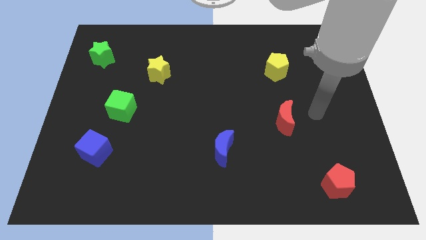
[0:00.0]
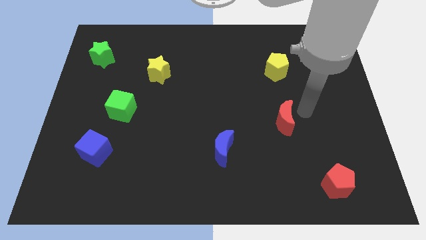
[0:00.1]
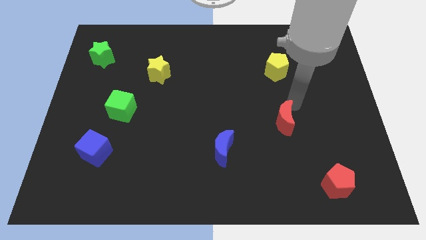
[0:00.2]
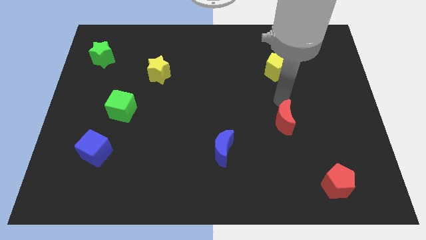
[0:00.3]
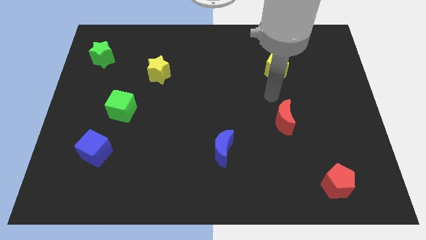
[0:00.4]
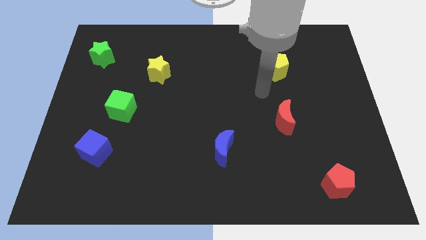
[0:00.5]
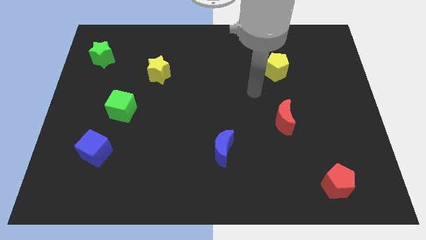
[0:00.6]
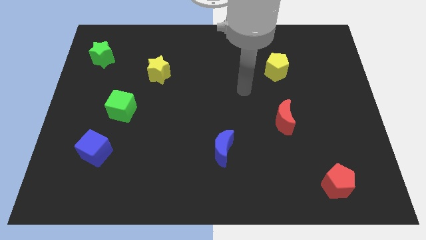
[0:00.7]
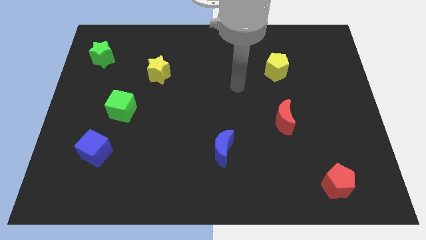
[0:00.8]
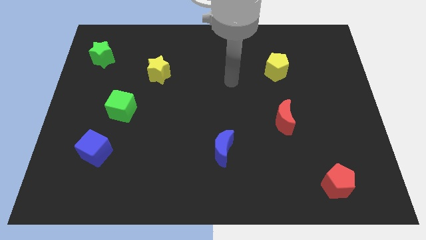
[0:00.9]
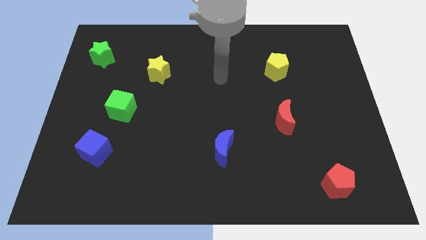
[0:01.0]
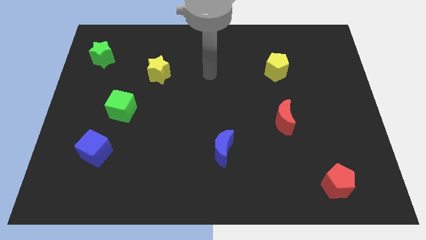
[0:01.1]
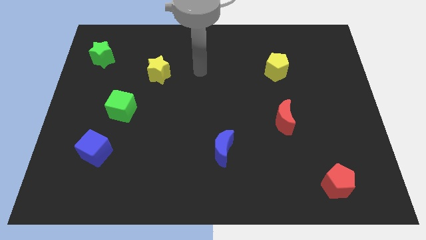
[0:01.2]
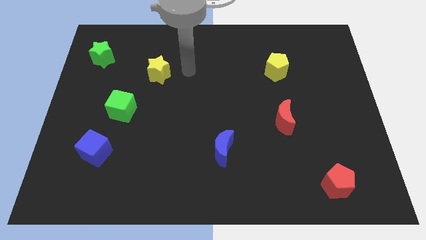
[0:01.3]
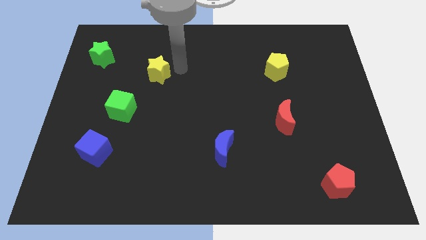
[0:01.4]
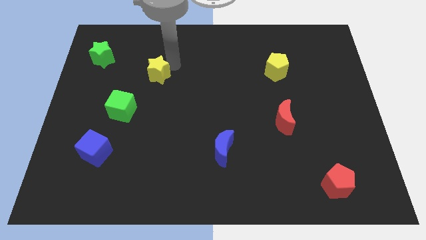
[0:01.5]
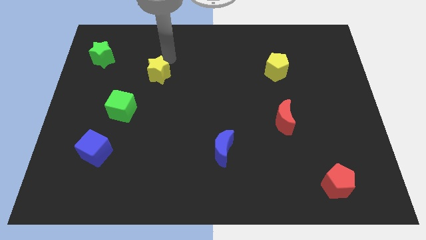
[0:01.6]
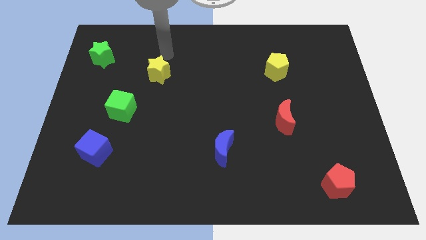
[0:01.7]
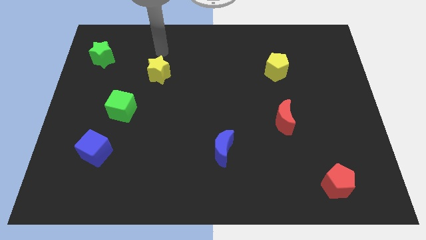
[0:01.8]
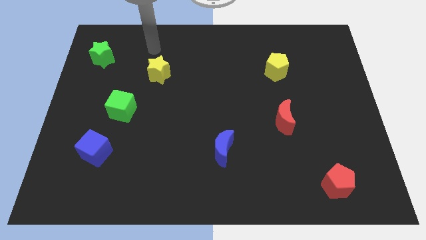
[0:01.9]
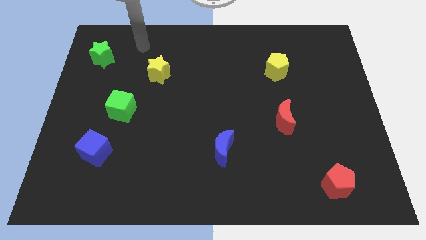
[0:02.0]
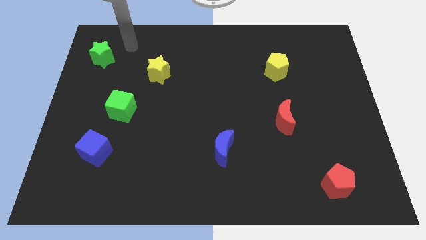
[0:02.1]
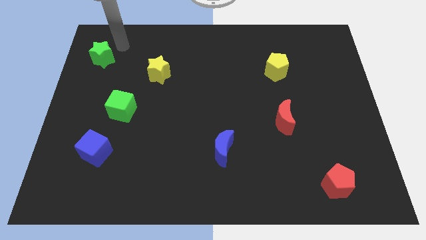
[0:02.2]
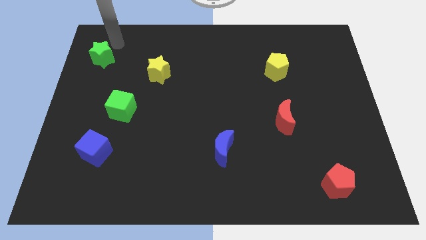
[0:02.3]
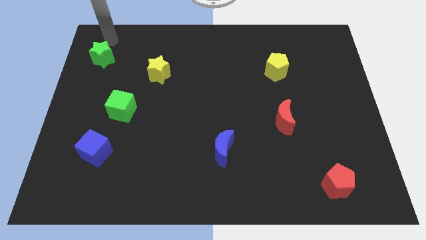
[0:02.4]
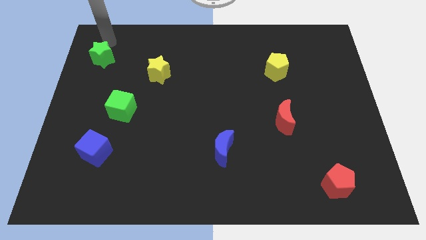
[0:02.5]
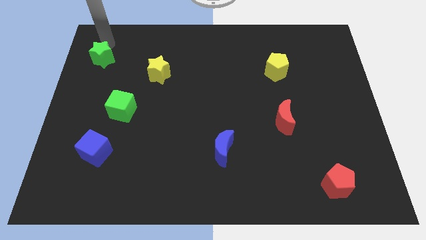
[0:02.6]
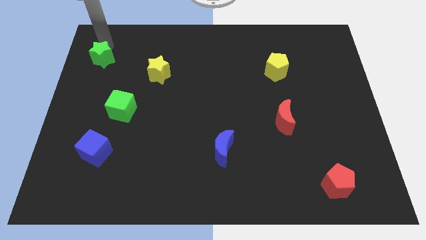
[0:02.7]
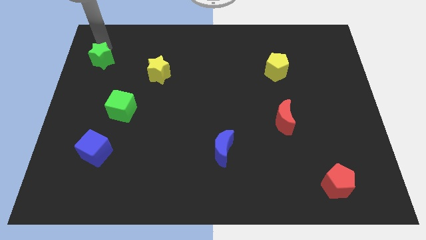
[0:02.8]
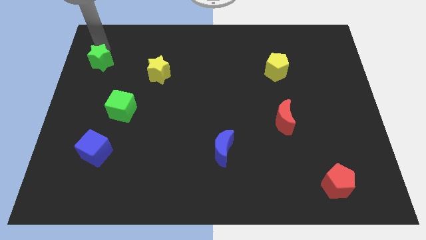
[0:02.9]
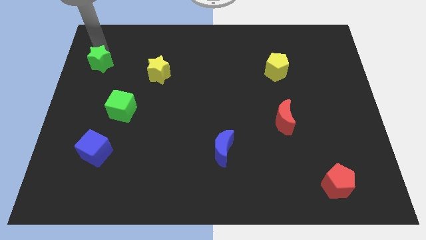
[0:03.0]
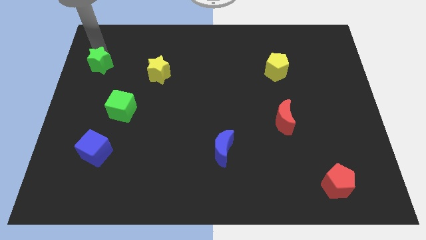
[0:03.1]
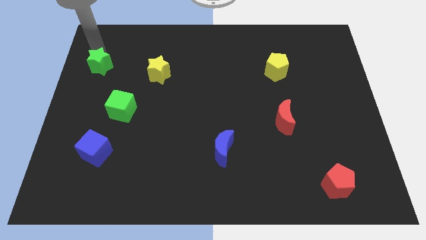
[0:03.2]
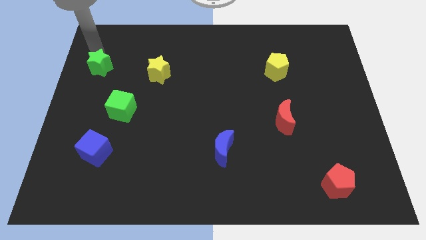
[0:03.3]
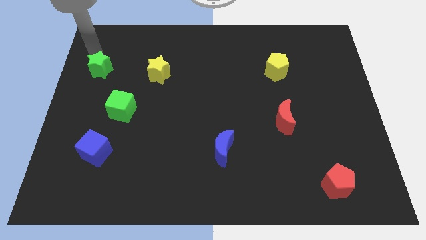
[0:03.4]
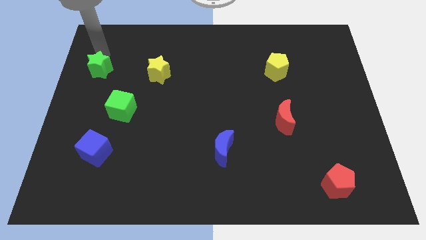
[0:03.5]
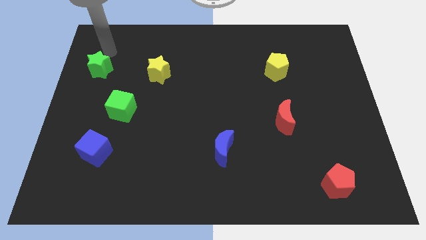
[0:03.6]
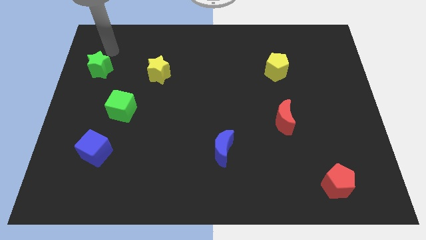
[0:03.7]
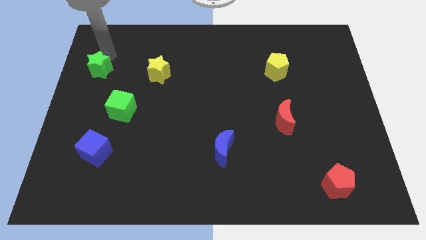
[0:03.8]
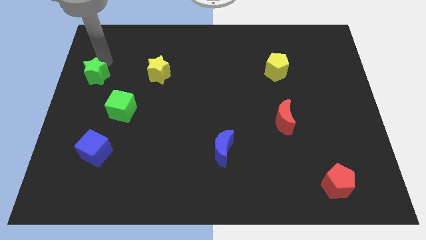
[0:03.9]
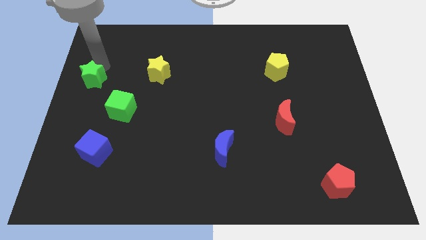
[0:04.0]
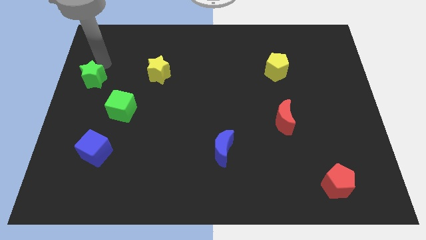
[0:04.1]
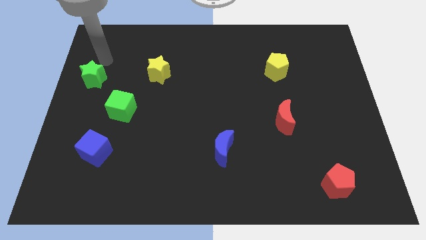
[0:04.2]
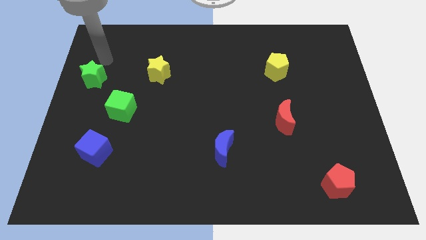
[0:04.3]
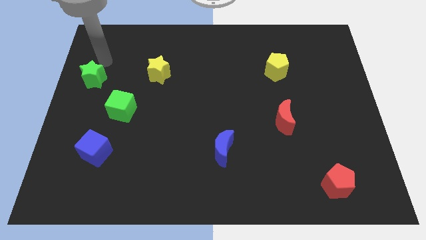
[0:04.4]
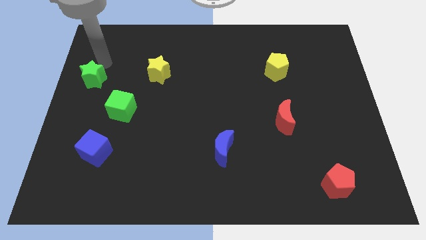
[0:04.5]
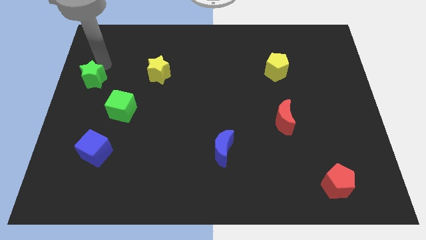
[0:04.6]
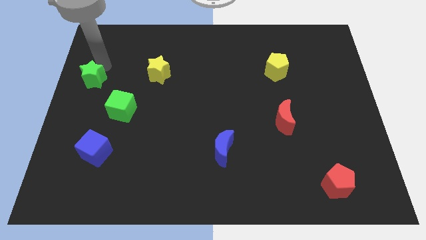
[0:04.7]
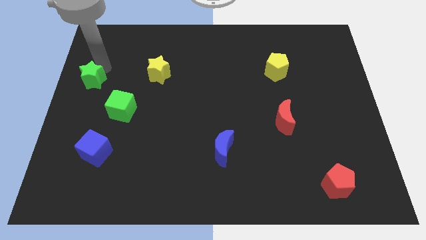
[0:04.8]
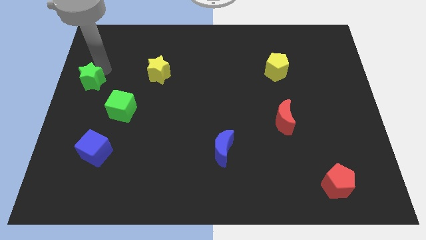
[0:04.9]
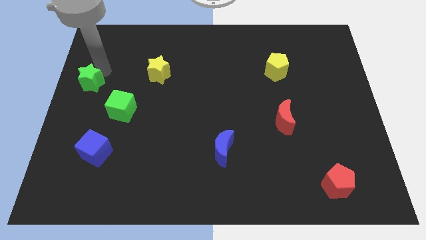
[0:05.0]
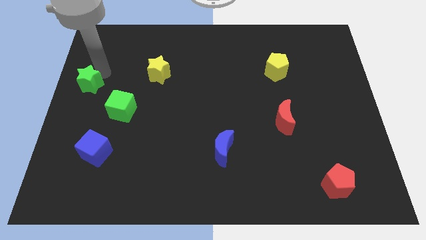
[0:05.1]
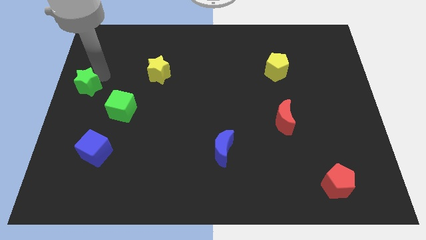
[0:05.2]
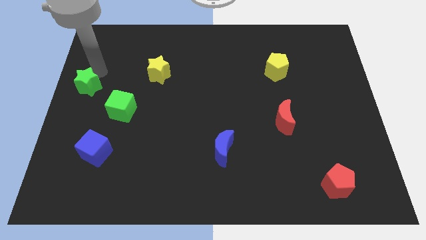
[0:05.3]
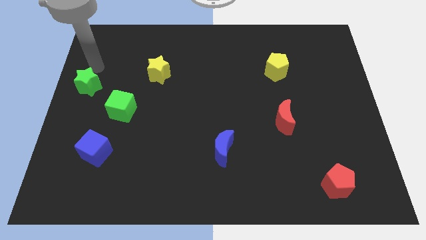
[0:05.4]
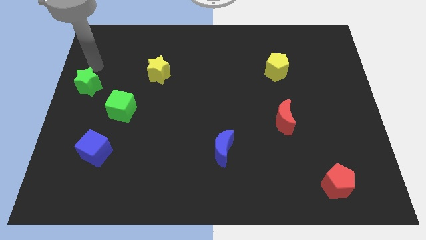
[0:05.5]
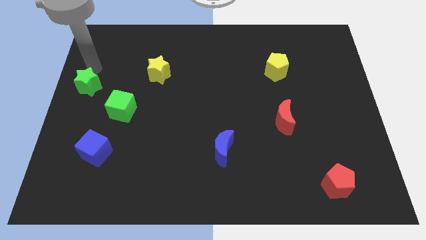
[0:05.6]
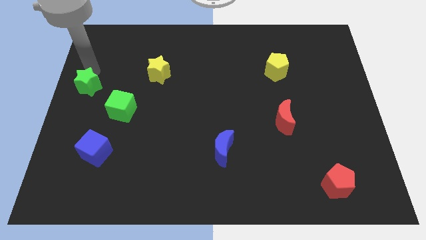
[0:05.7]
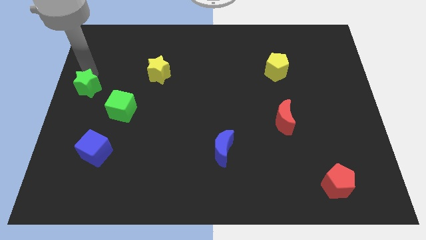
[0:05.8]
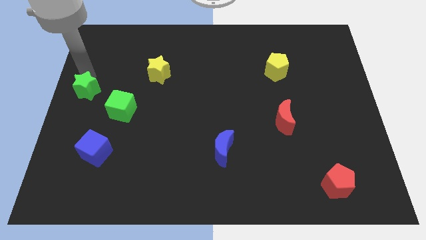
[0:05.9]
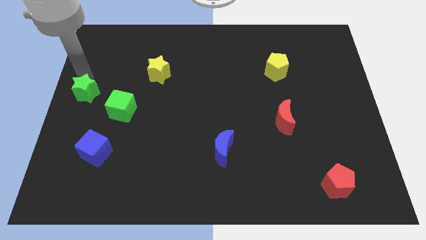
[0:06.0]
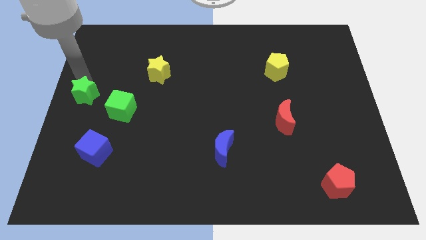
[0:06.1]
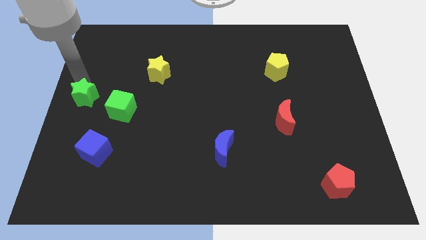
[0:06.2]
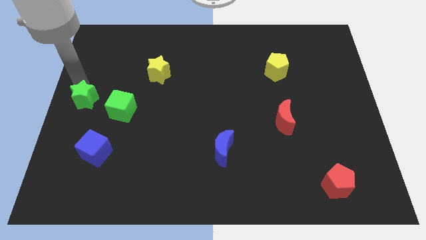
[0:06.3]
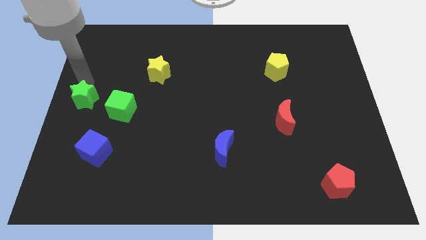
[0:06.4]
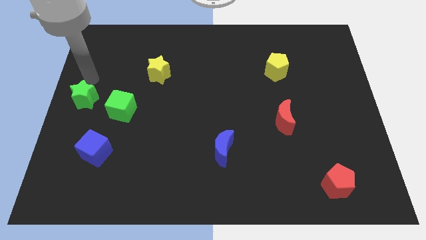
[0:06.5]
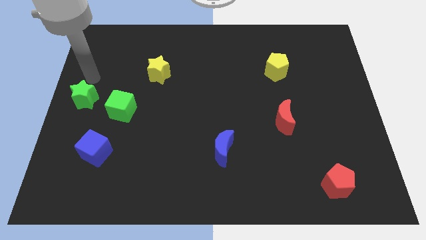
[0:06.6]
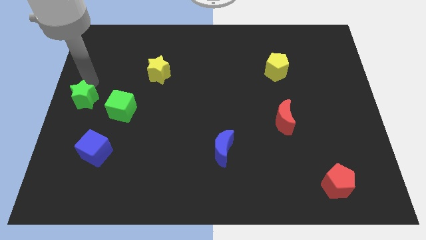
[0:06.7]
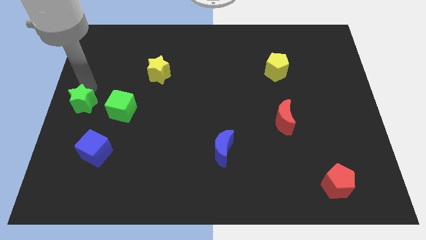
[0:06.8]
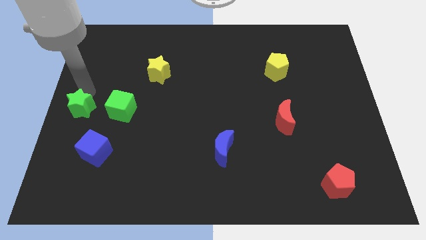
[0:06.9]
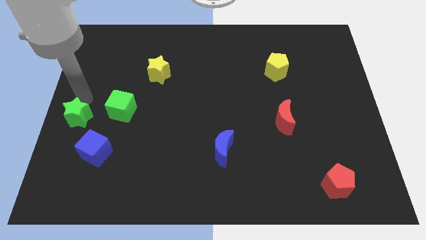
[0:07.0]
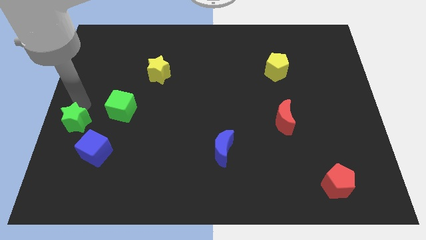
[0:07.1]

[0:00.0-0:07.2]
slide the green star down

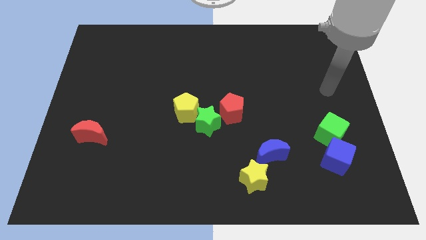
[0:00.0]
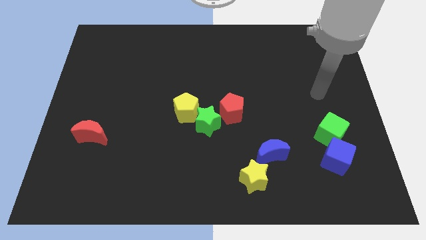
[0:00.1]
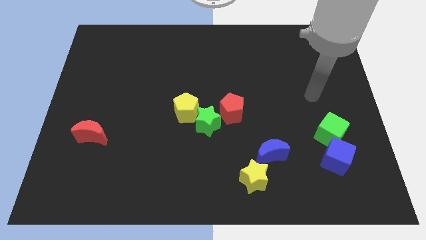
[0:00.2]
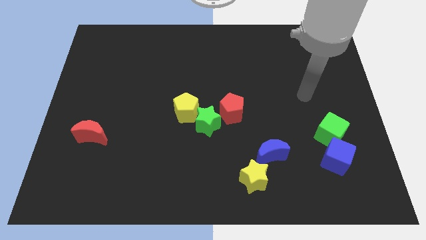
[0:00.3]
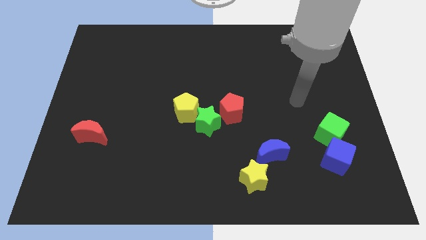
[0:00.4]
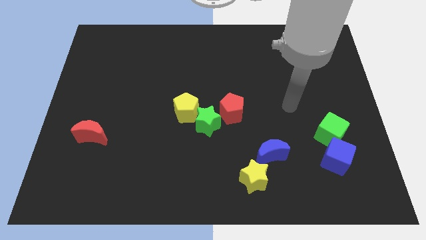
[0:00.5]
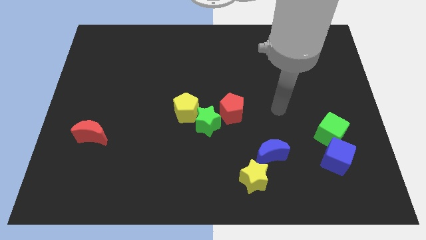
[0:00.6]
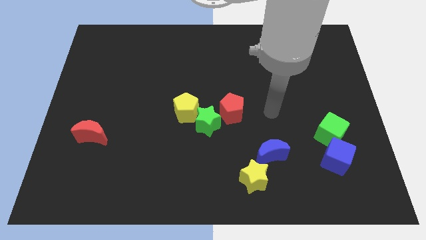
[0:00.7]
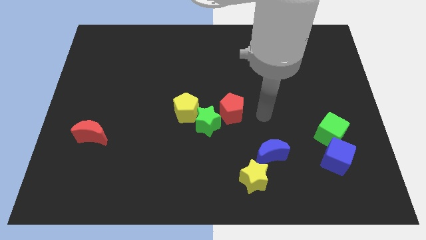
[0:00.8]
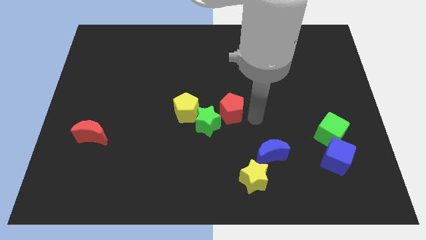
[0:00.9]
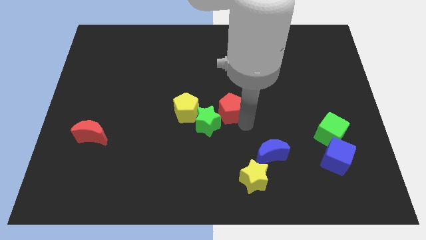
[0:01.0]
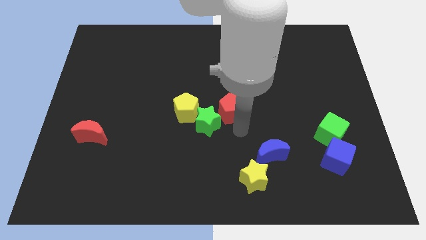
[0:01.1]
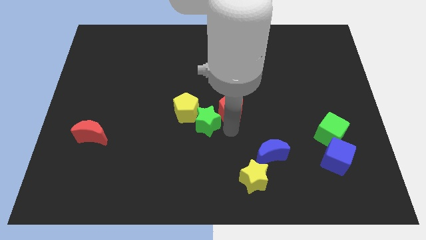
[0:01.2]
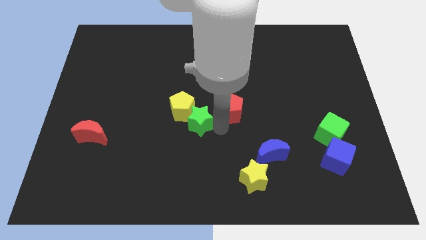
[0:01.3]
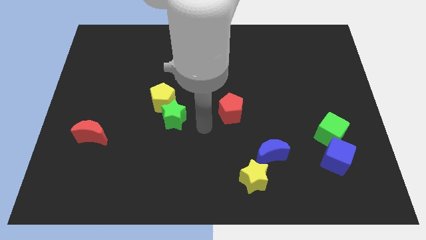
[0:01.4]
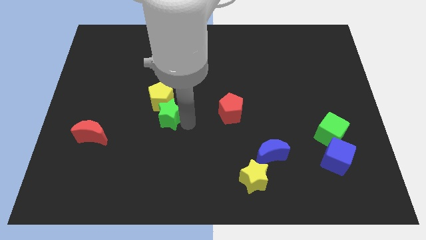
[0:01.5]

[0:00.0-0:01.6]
slightly move the yellow pentagon diagonally upwards and left
